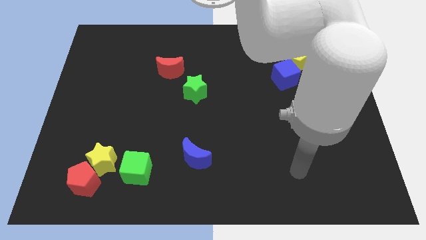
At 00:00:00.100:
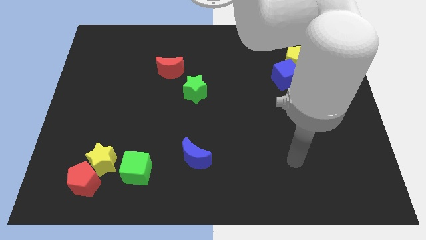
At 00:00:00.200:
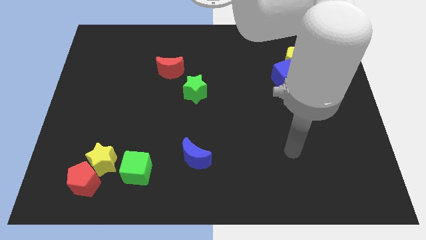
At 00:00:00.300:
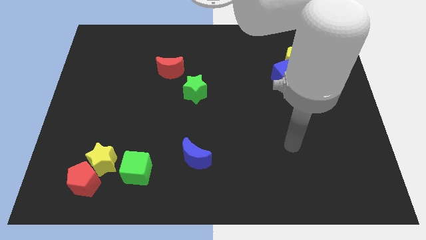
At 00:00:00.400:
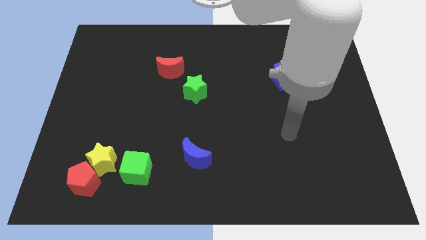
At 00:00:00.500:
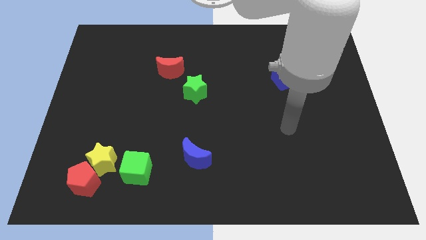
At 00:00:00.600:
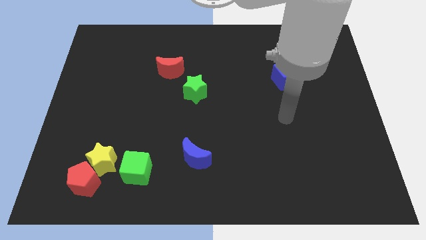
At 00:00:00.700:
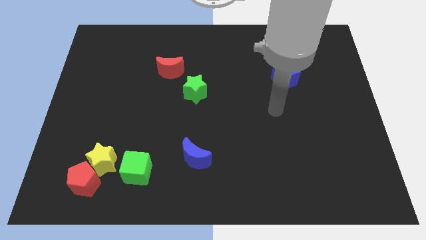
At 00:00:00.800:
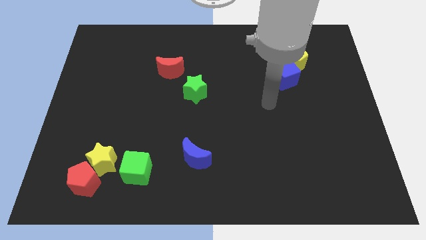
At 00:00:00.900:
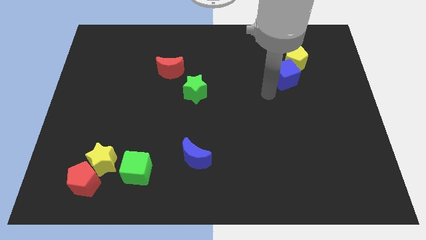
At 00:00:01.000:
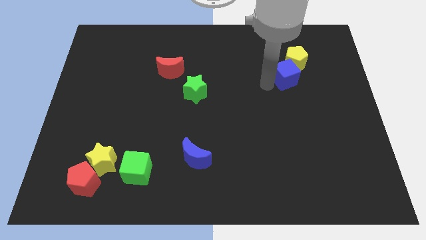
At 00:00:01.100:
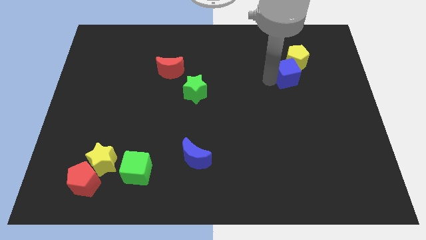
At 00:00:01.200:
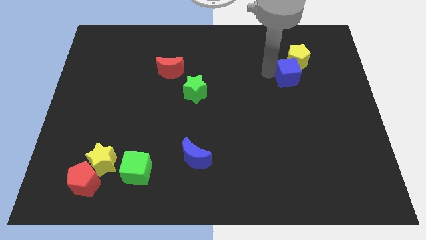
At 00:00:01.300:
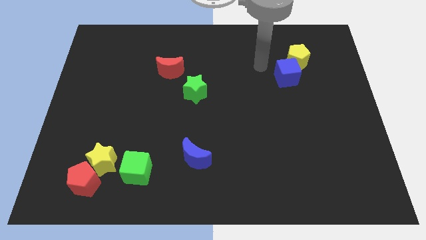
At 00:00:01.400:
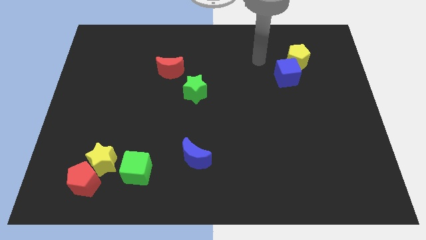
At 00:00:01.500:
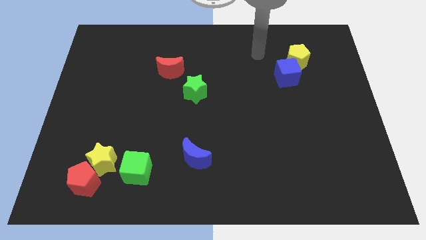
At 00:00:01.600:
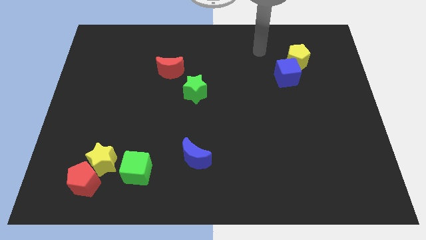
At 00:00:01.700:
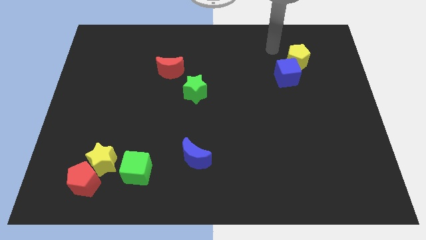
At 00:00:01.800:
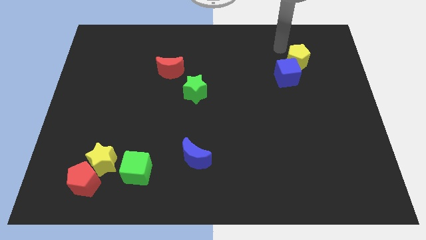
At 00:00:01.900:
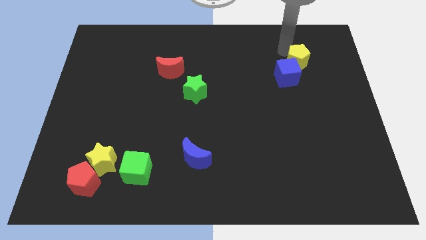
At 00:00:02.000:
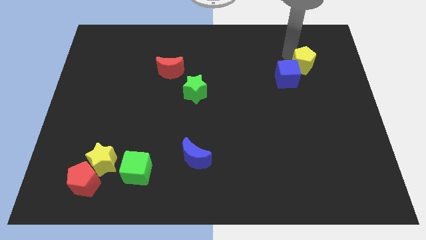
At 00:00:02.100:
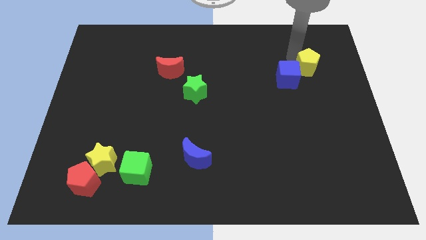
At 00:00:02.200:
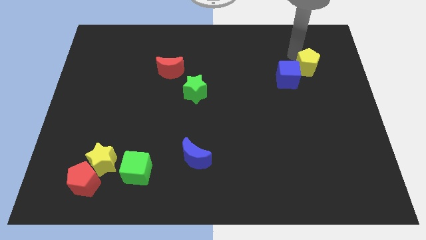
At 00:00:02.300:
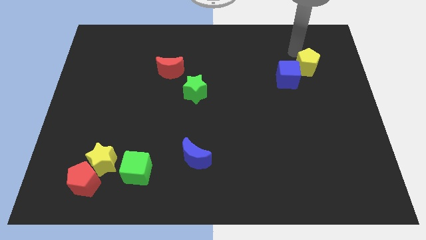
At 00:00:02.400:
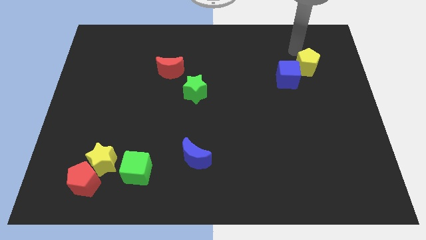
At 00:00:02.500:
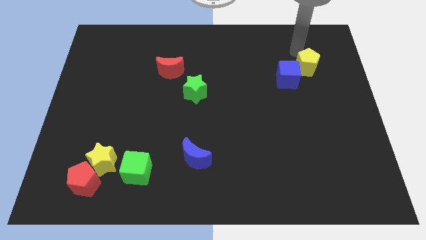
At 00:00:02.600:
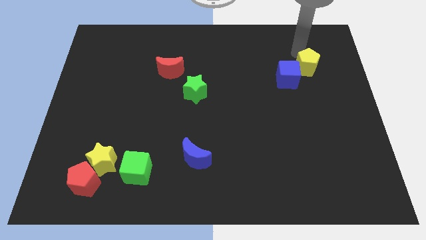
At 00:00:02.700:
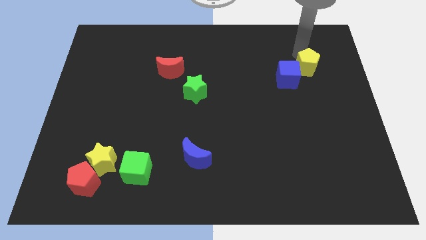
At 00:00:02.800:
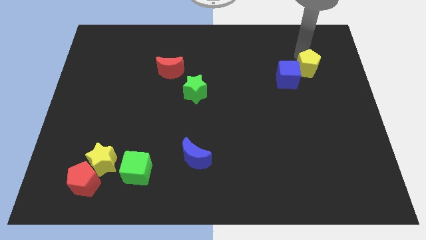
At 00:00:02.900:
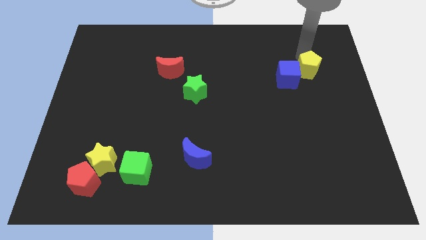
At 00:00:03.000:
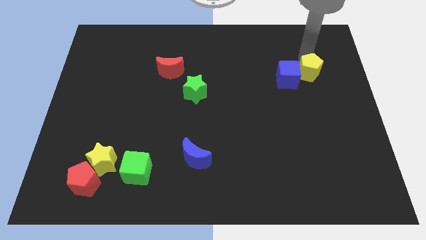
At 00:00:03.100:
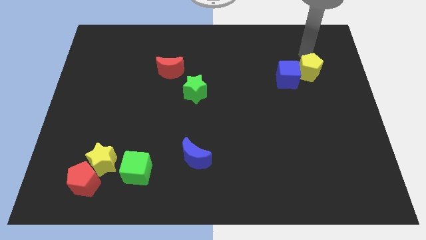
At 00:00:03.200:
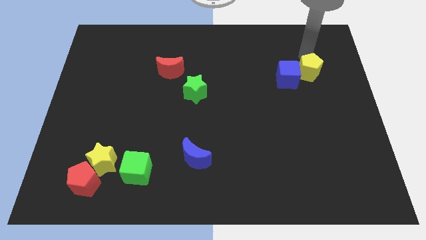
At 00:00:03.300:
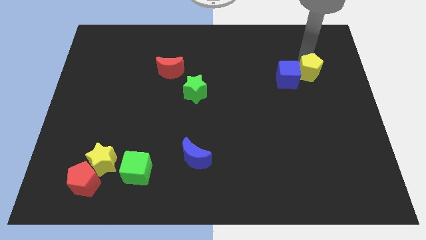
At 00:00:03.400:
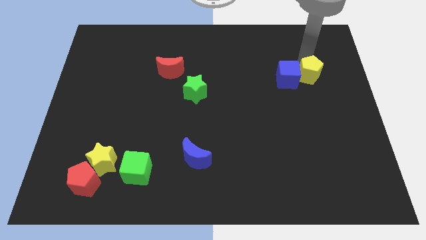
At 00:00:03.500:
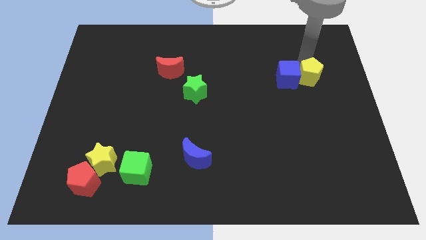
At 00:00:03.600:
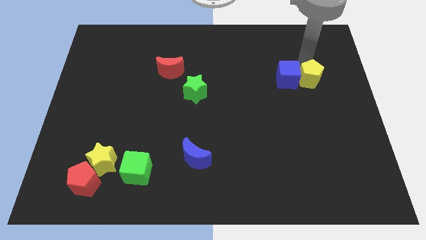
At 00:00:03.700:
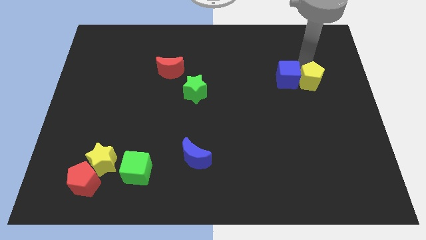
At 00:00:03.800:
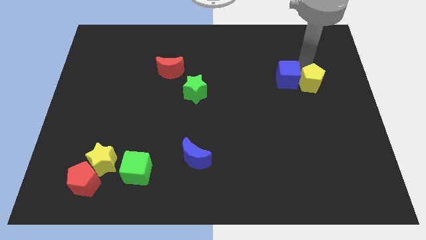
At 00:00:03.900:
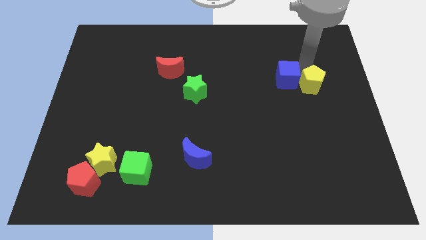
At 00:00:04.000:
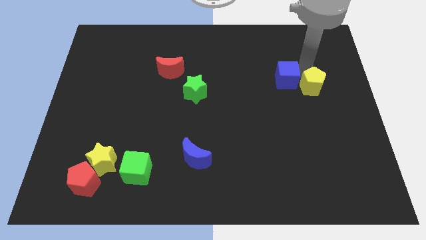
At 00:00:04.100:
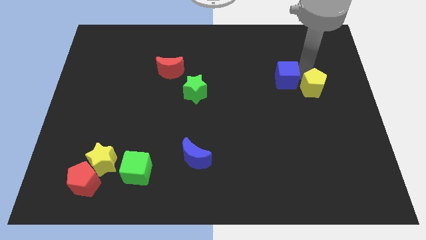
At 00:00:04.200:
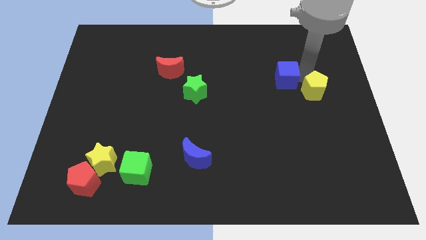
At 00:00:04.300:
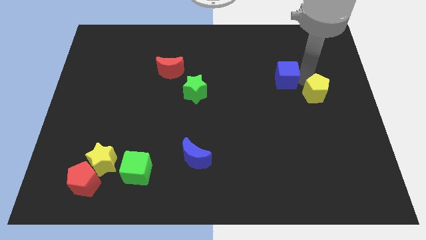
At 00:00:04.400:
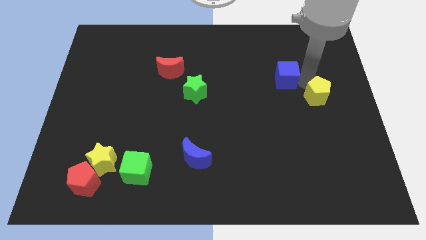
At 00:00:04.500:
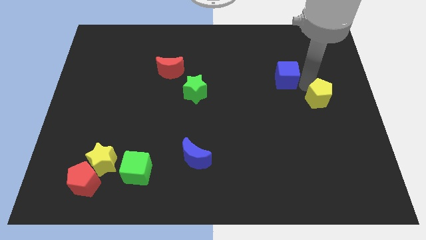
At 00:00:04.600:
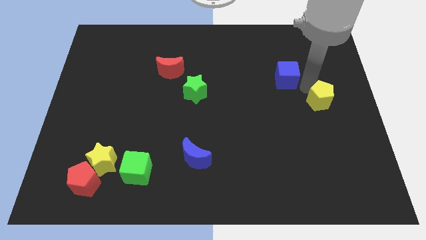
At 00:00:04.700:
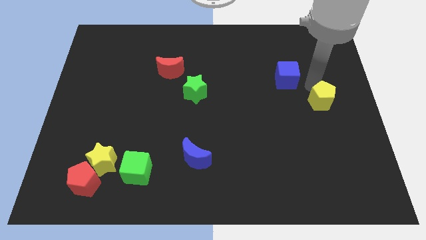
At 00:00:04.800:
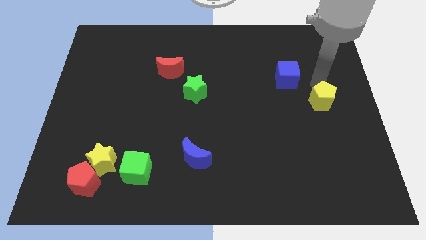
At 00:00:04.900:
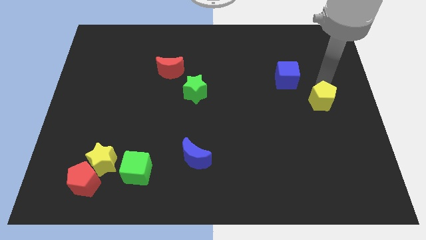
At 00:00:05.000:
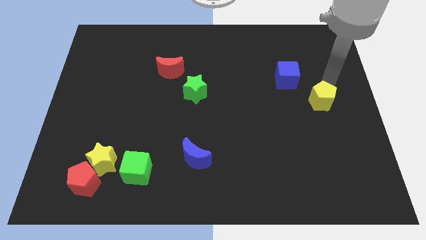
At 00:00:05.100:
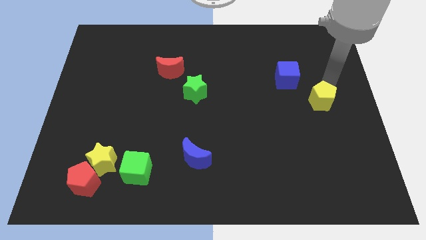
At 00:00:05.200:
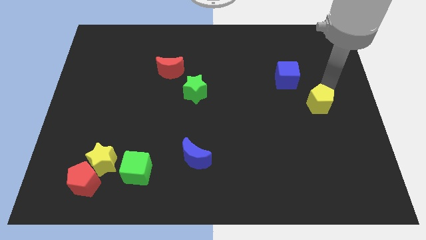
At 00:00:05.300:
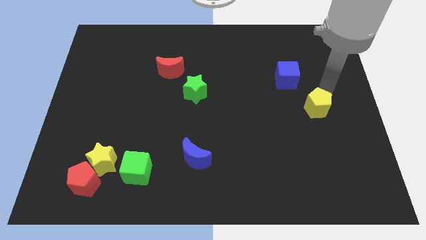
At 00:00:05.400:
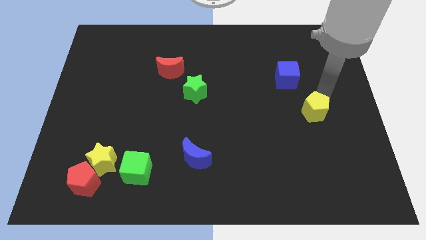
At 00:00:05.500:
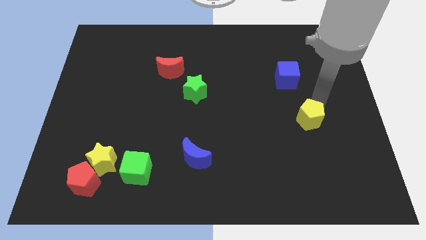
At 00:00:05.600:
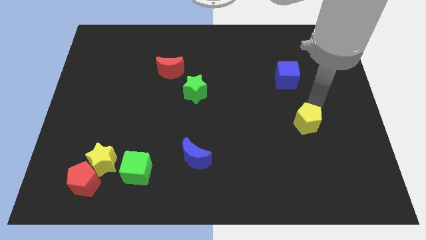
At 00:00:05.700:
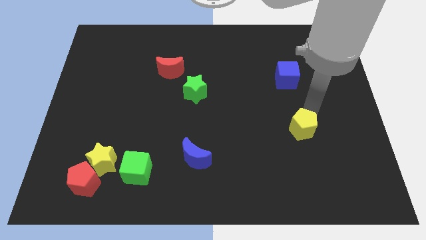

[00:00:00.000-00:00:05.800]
move the yellow pentagon down

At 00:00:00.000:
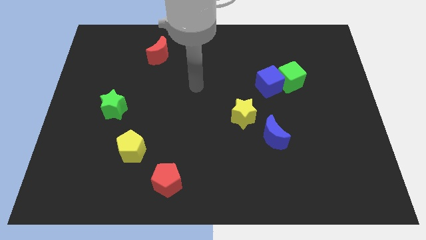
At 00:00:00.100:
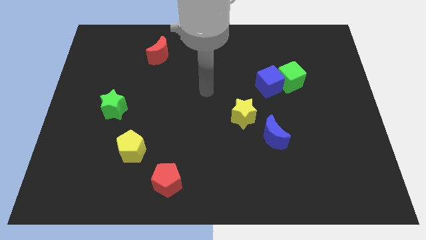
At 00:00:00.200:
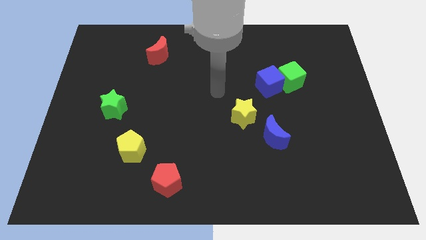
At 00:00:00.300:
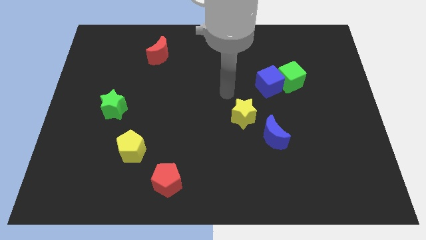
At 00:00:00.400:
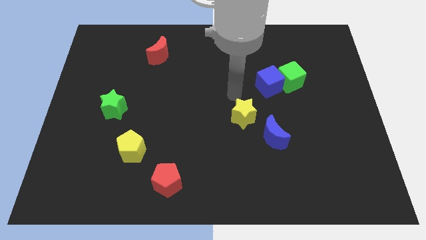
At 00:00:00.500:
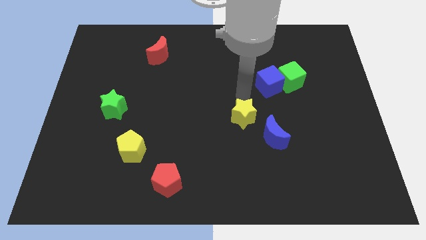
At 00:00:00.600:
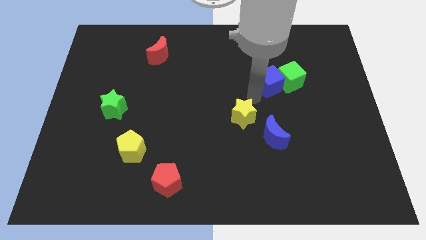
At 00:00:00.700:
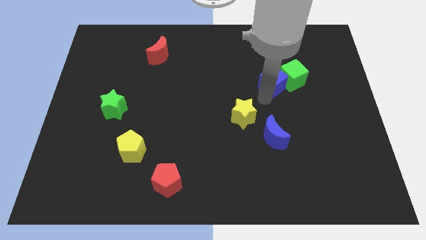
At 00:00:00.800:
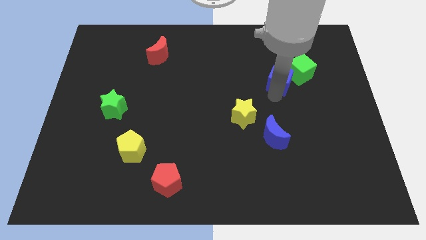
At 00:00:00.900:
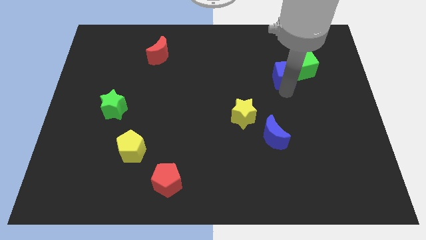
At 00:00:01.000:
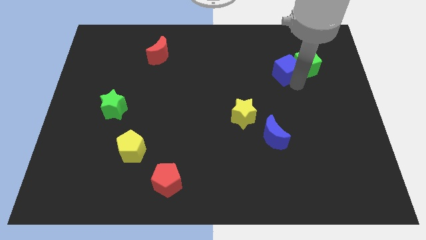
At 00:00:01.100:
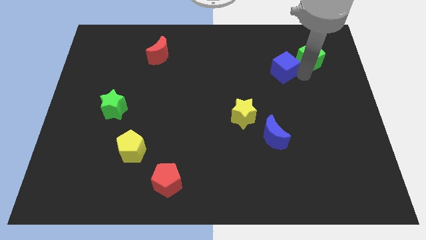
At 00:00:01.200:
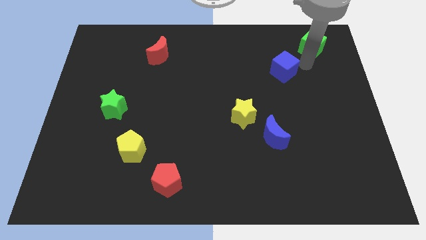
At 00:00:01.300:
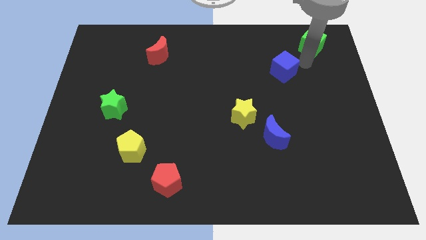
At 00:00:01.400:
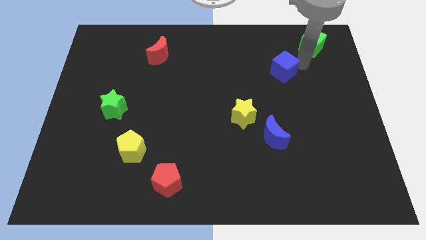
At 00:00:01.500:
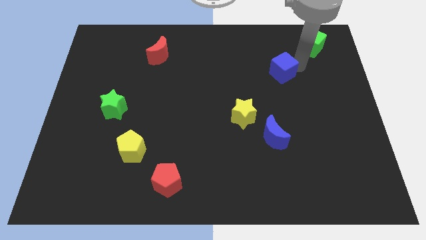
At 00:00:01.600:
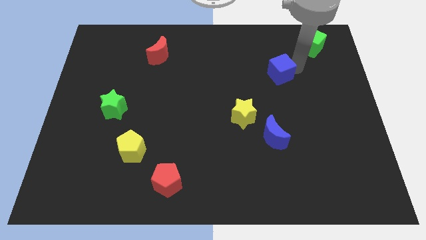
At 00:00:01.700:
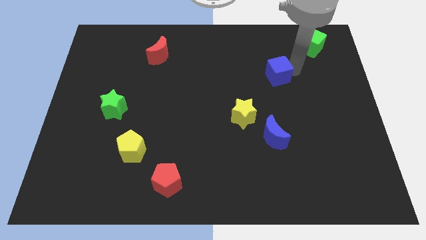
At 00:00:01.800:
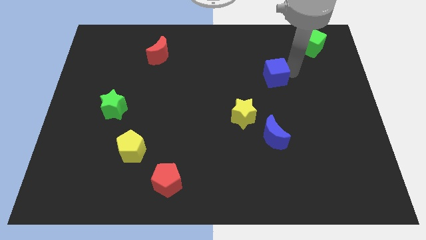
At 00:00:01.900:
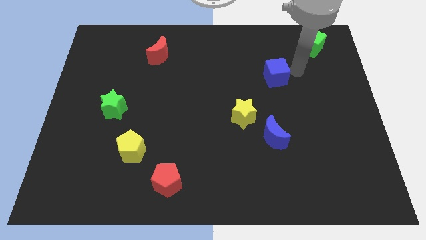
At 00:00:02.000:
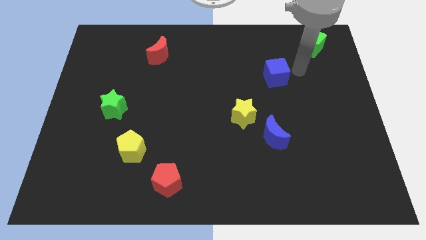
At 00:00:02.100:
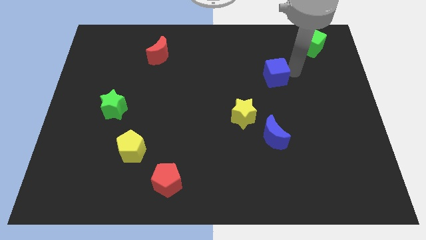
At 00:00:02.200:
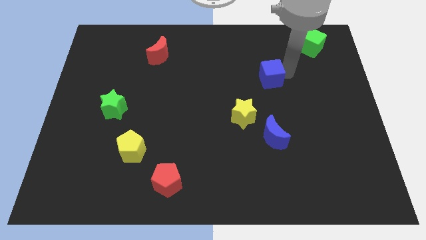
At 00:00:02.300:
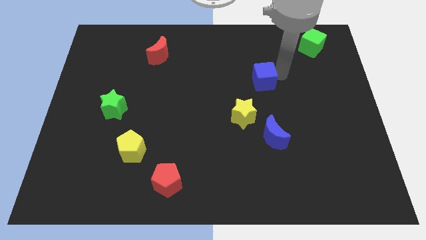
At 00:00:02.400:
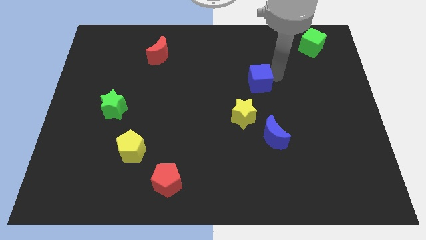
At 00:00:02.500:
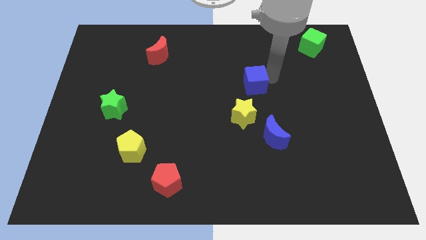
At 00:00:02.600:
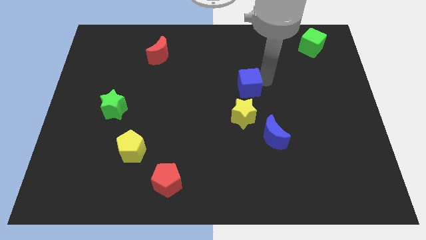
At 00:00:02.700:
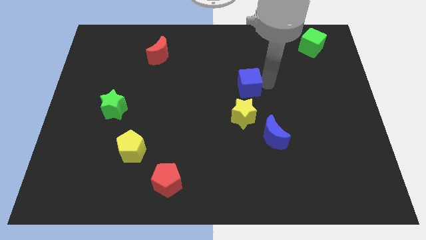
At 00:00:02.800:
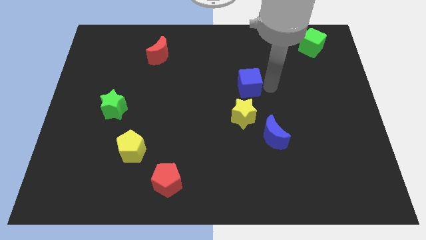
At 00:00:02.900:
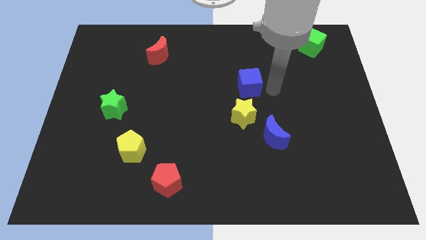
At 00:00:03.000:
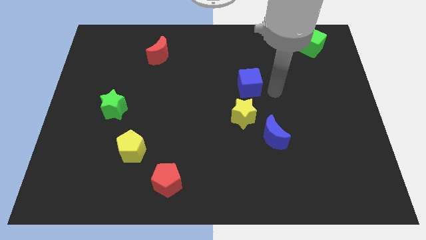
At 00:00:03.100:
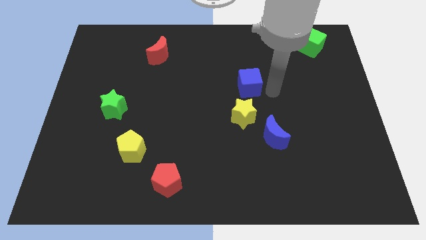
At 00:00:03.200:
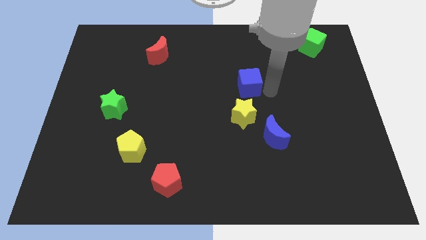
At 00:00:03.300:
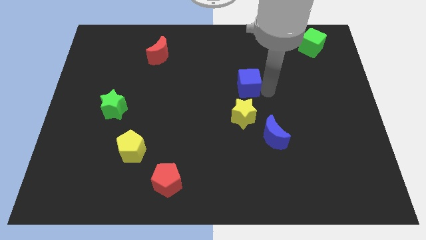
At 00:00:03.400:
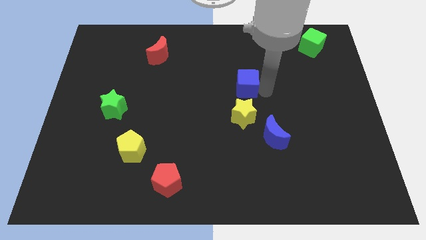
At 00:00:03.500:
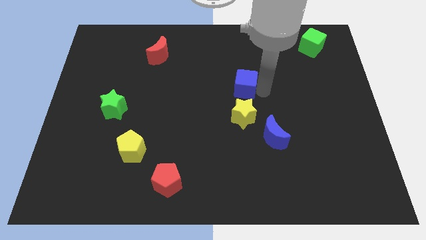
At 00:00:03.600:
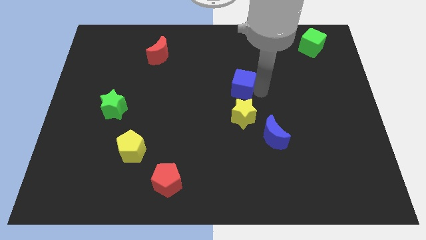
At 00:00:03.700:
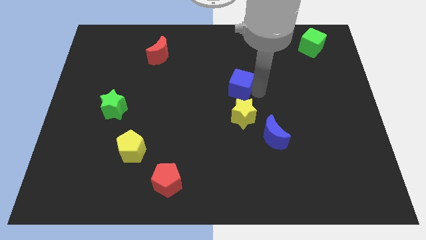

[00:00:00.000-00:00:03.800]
slide the blue cube slightly to the left
